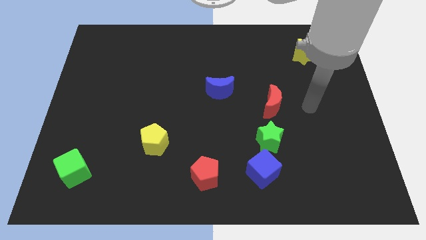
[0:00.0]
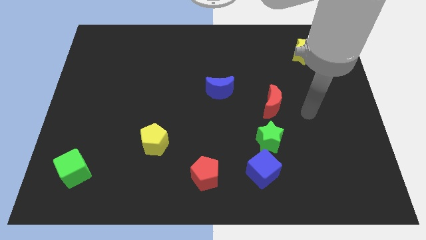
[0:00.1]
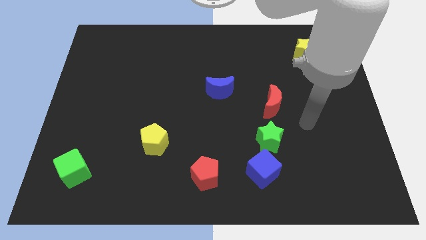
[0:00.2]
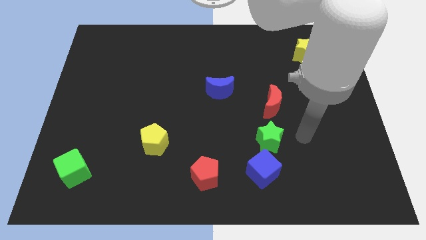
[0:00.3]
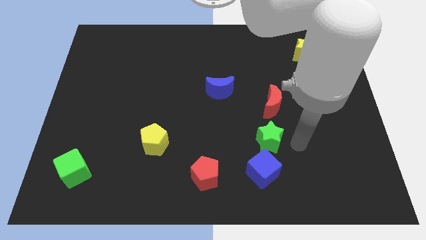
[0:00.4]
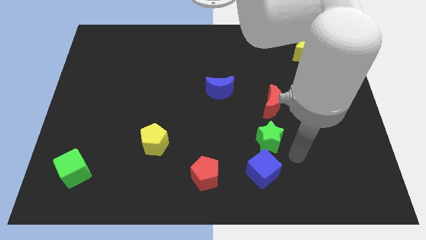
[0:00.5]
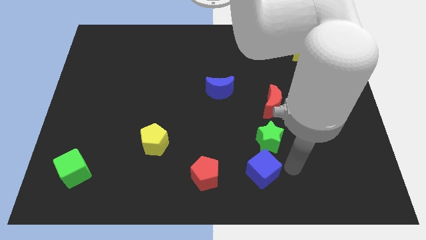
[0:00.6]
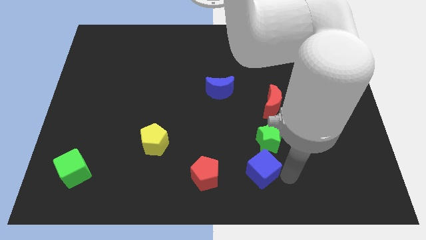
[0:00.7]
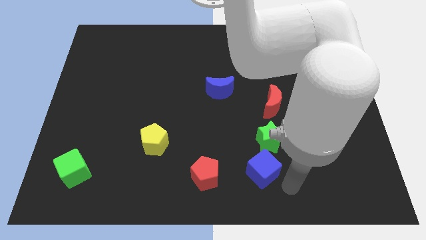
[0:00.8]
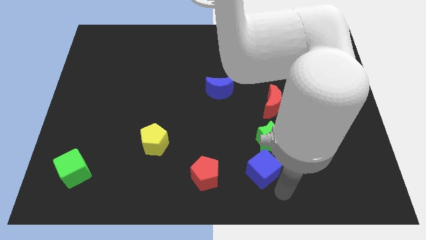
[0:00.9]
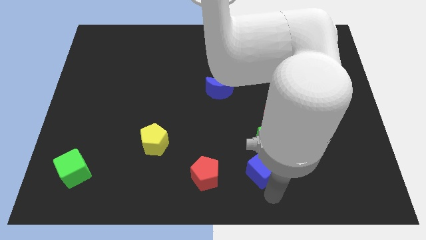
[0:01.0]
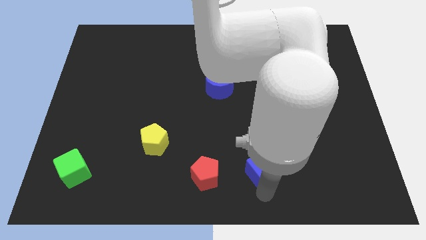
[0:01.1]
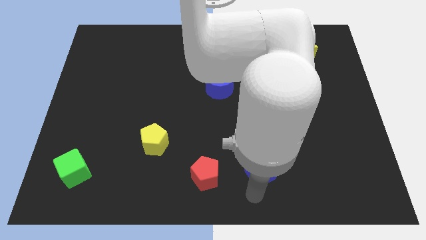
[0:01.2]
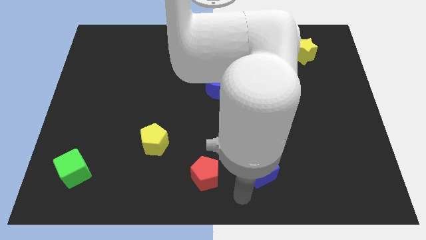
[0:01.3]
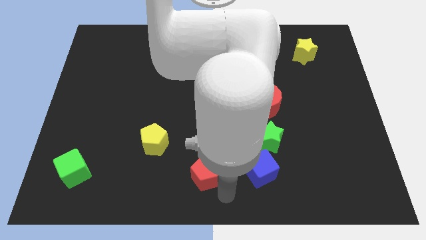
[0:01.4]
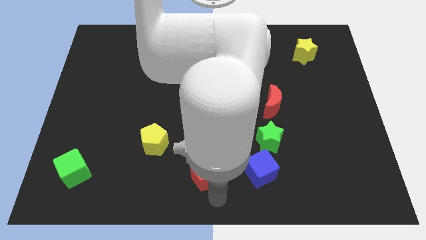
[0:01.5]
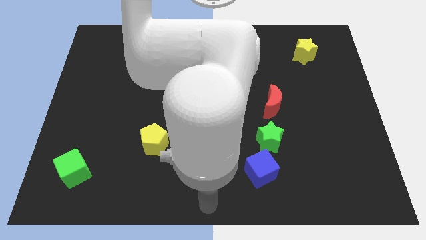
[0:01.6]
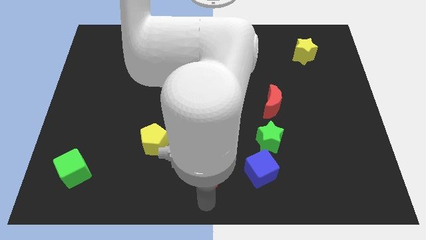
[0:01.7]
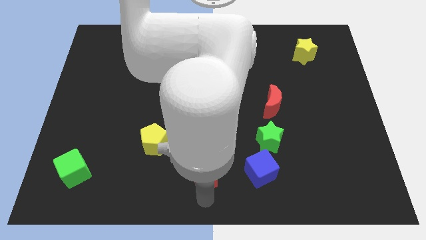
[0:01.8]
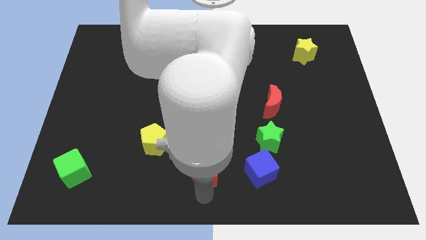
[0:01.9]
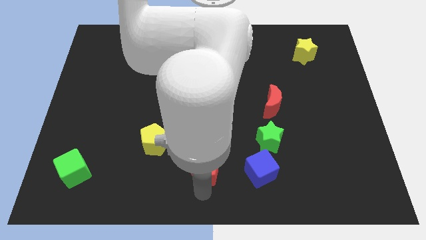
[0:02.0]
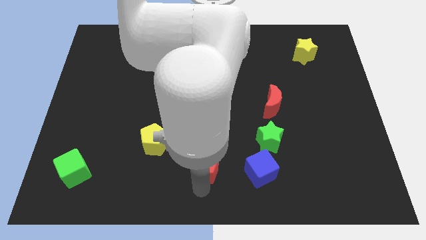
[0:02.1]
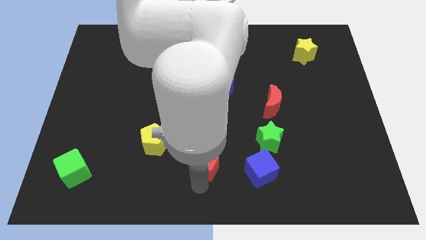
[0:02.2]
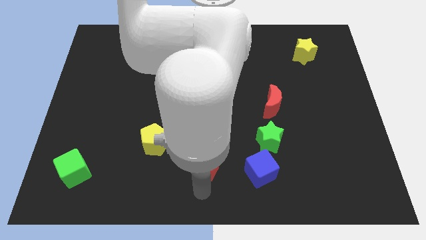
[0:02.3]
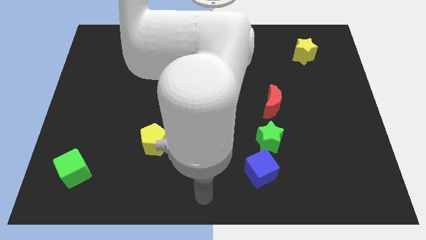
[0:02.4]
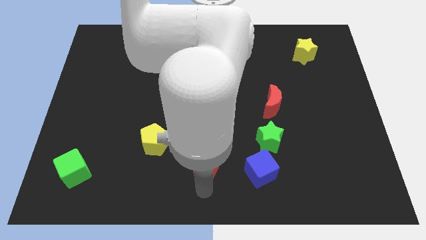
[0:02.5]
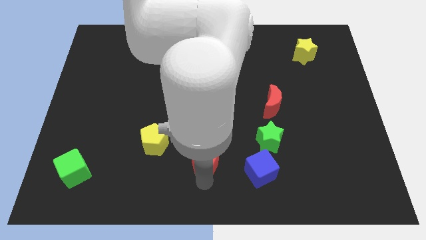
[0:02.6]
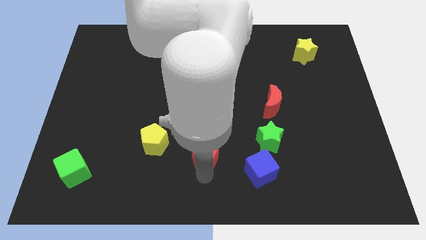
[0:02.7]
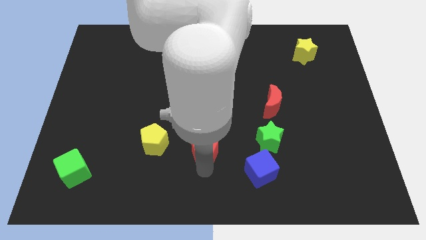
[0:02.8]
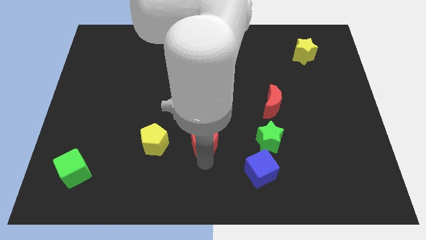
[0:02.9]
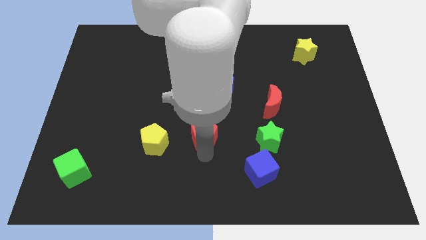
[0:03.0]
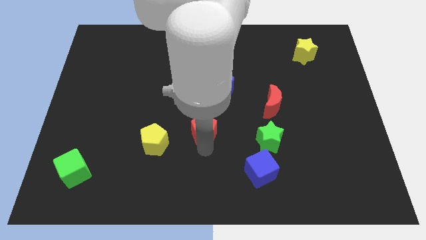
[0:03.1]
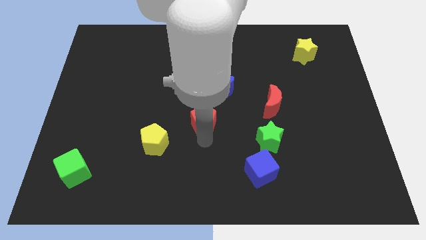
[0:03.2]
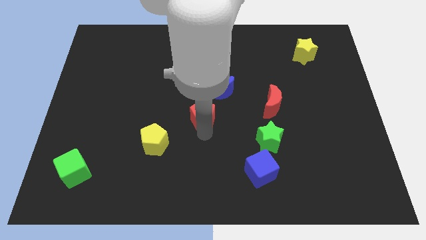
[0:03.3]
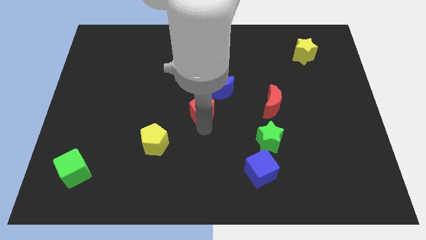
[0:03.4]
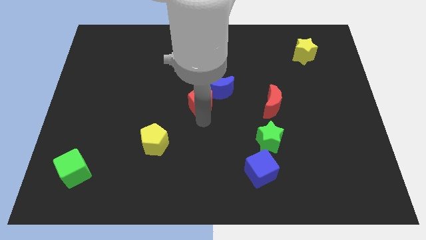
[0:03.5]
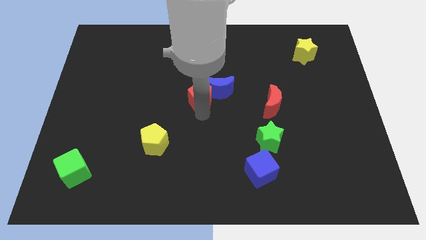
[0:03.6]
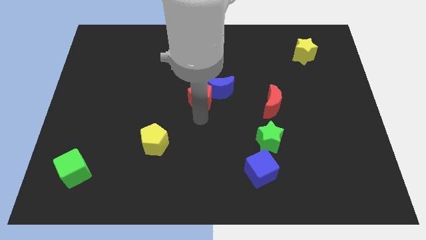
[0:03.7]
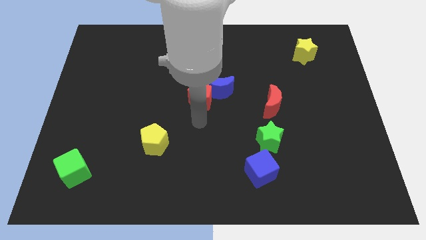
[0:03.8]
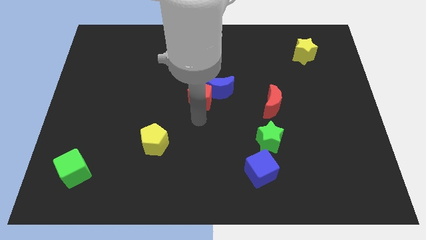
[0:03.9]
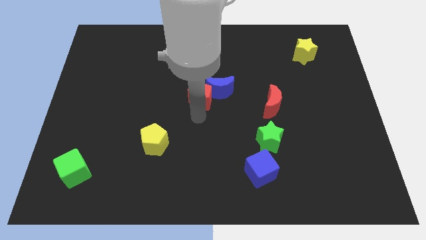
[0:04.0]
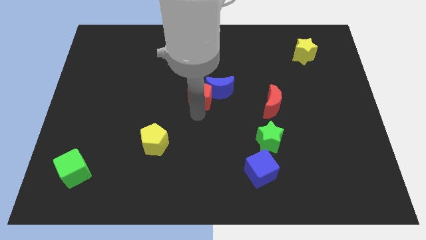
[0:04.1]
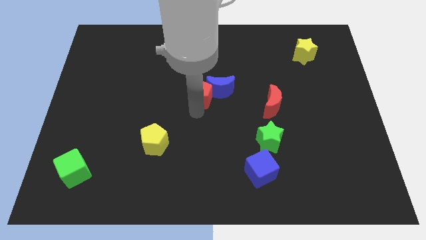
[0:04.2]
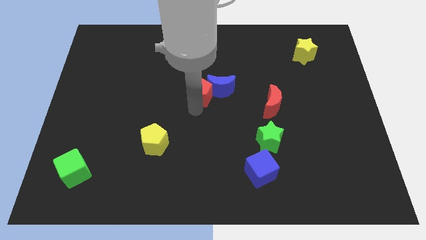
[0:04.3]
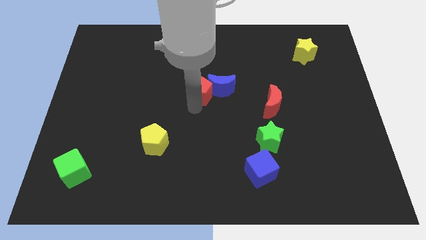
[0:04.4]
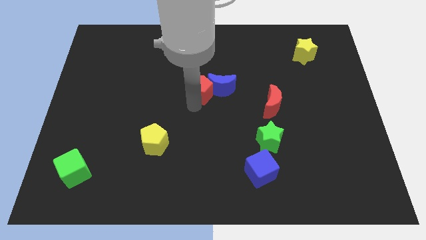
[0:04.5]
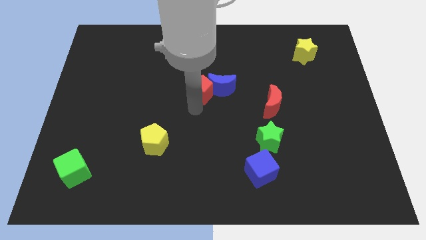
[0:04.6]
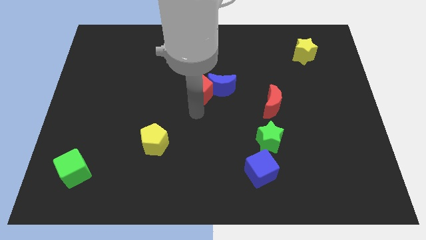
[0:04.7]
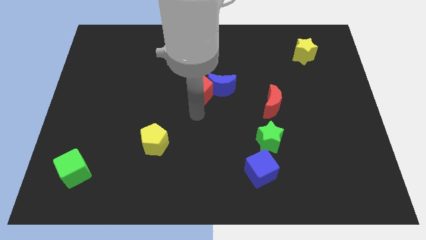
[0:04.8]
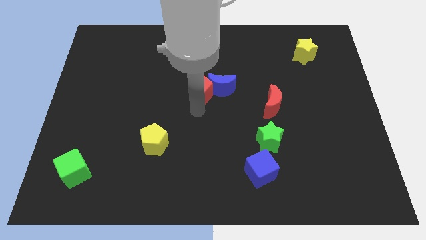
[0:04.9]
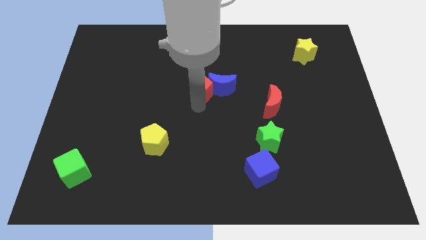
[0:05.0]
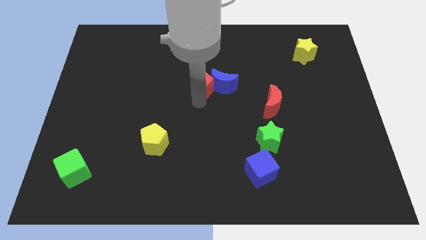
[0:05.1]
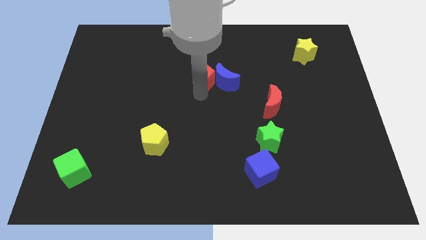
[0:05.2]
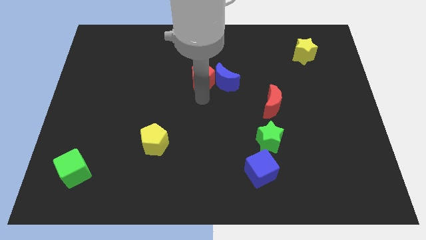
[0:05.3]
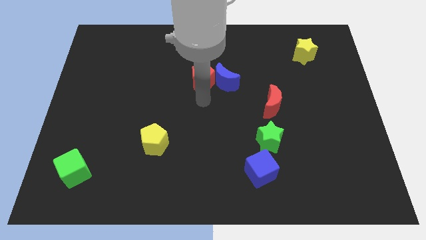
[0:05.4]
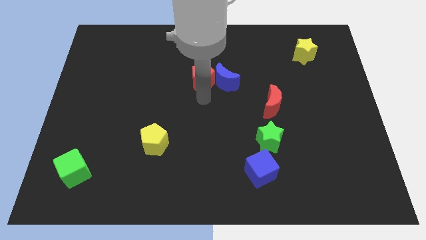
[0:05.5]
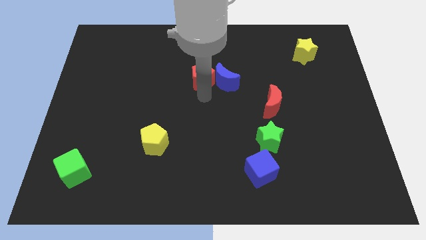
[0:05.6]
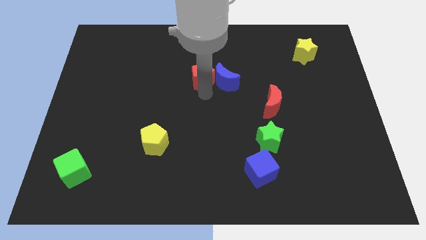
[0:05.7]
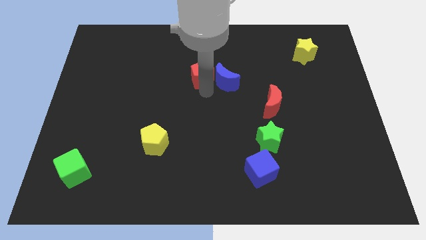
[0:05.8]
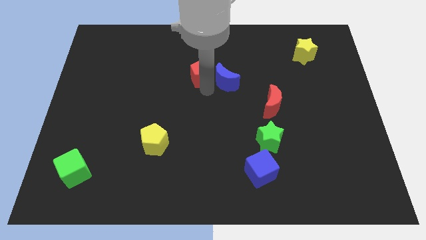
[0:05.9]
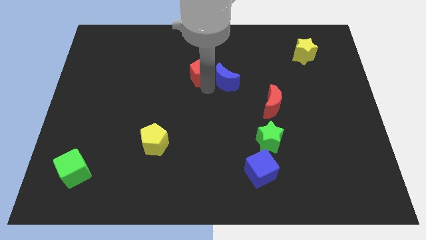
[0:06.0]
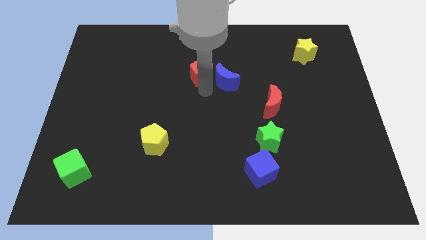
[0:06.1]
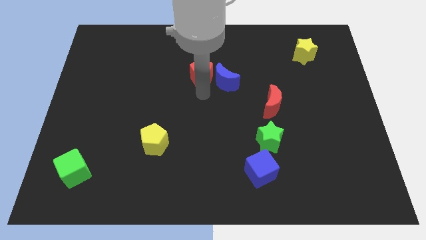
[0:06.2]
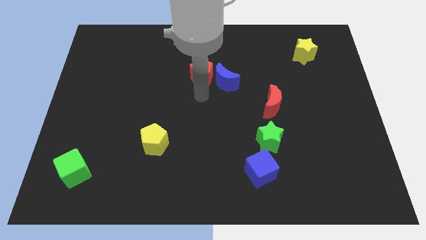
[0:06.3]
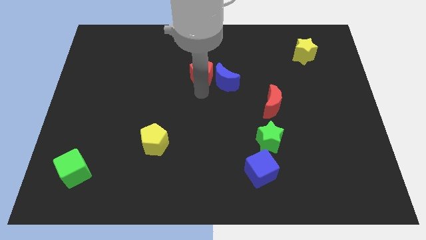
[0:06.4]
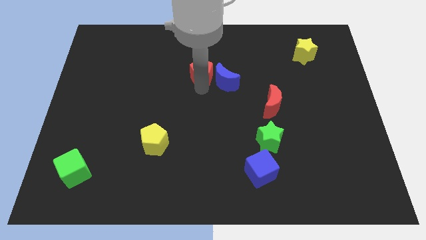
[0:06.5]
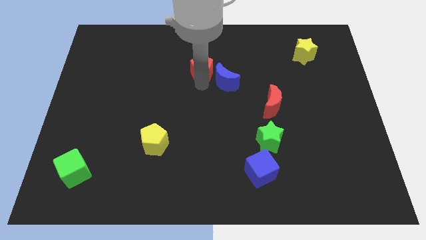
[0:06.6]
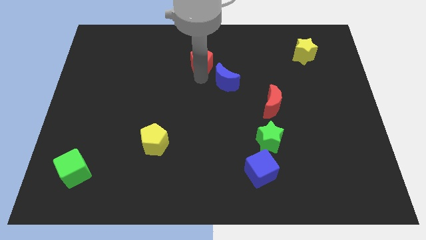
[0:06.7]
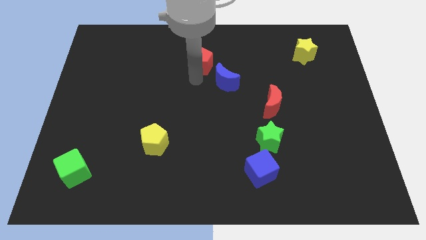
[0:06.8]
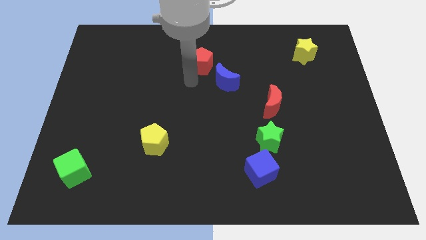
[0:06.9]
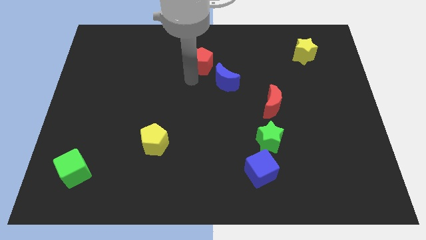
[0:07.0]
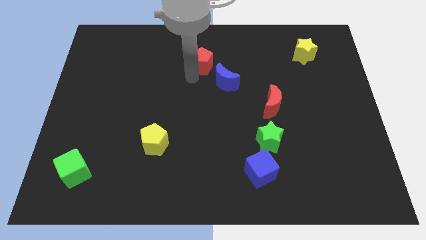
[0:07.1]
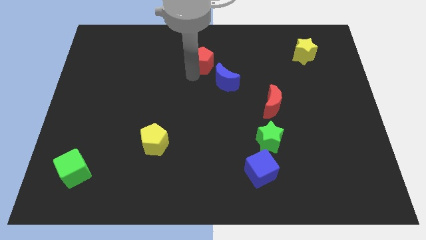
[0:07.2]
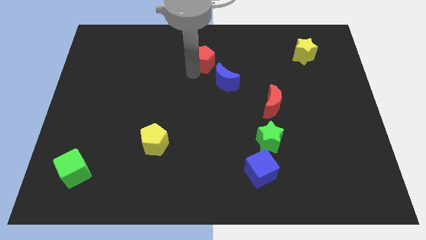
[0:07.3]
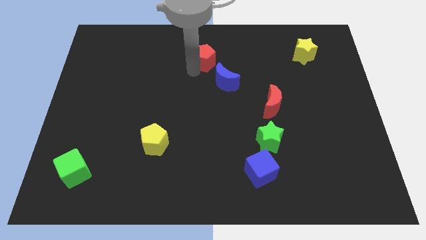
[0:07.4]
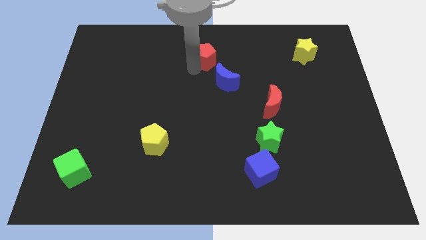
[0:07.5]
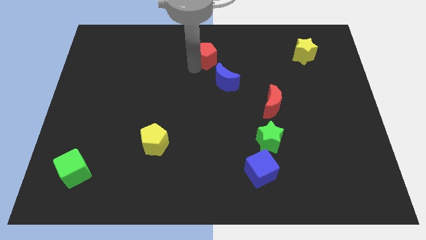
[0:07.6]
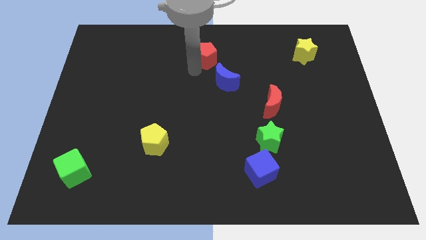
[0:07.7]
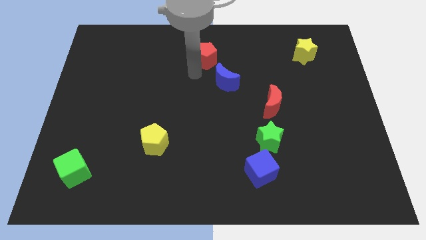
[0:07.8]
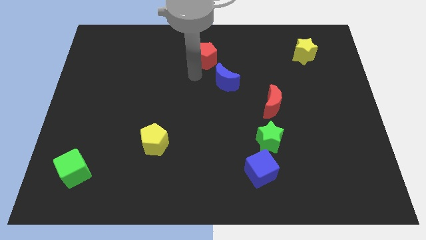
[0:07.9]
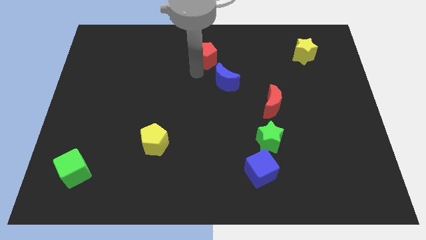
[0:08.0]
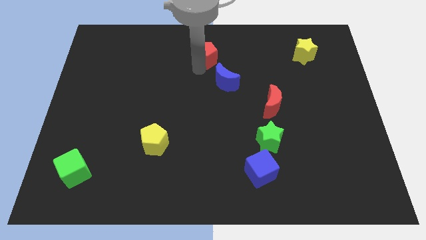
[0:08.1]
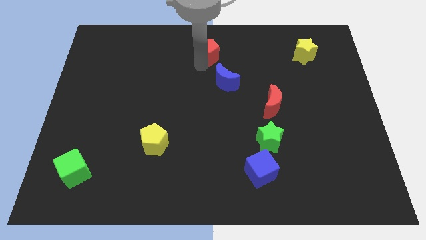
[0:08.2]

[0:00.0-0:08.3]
slide the red pentagon to the top side
